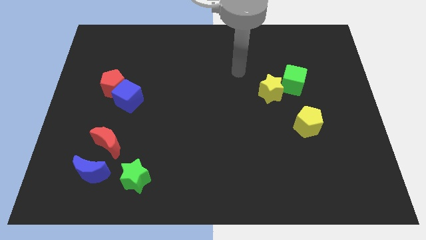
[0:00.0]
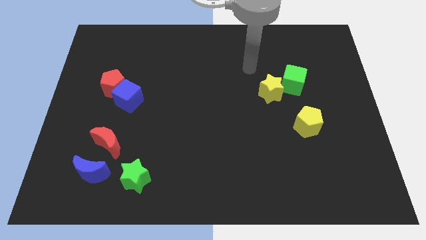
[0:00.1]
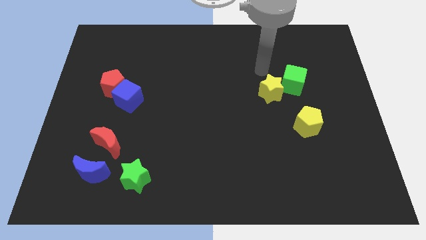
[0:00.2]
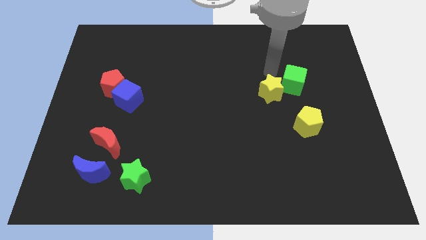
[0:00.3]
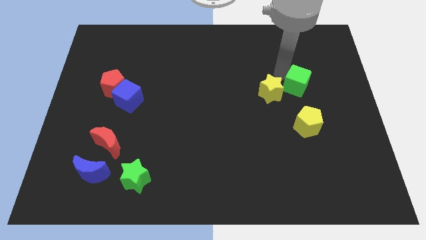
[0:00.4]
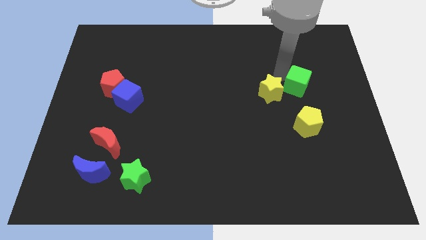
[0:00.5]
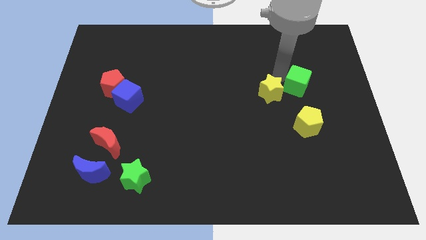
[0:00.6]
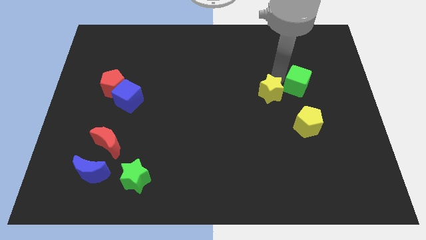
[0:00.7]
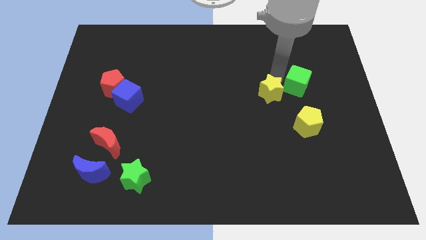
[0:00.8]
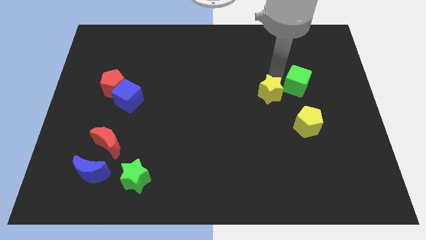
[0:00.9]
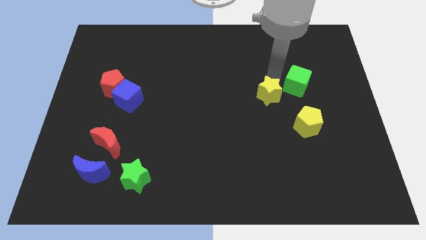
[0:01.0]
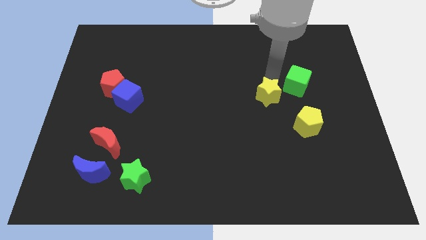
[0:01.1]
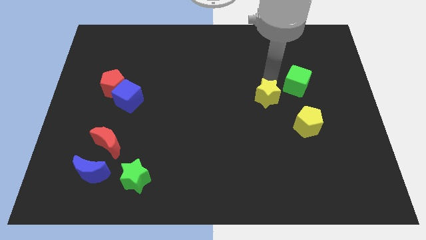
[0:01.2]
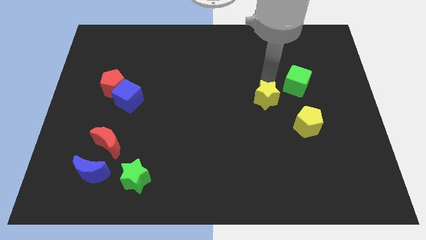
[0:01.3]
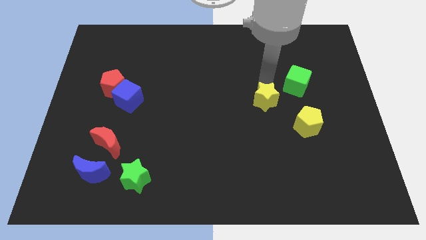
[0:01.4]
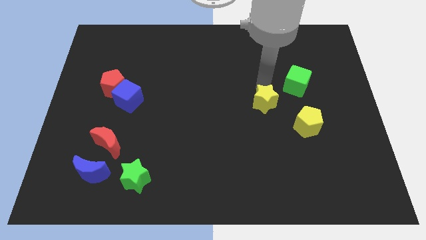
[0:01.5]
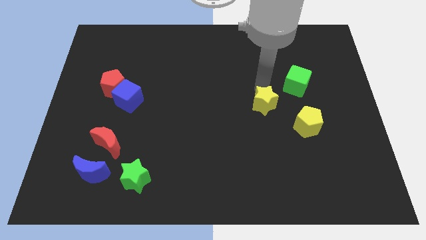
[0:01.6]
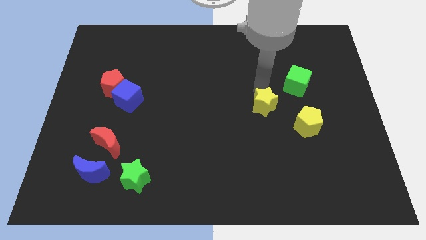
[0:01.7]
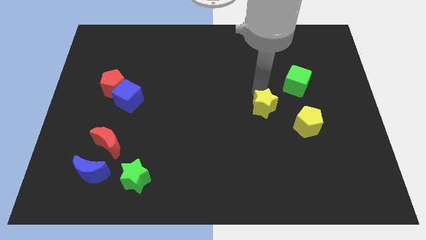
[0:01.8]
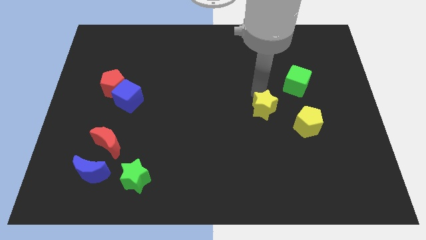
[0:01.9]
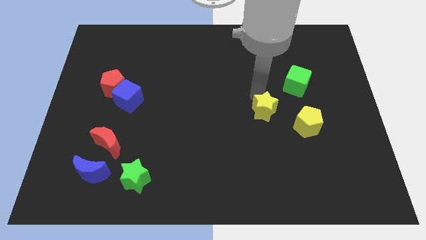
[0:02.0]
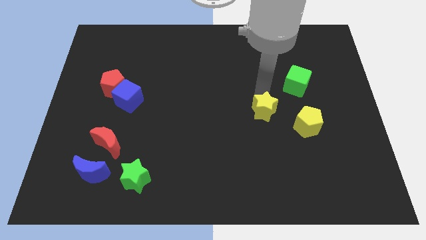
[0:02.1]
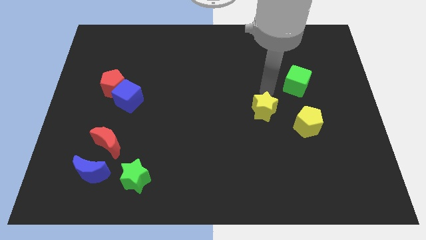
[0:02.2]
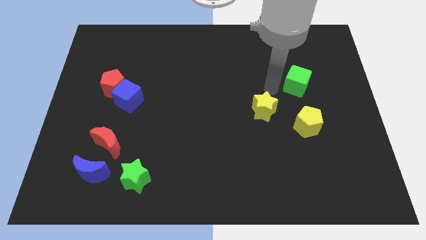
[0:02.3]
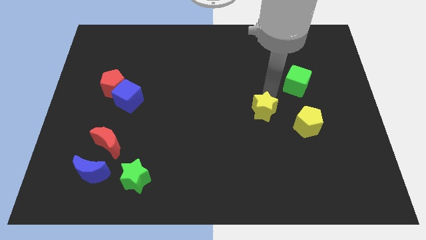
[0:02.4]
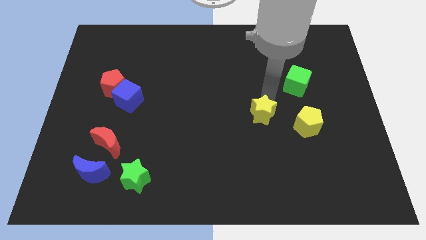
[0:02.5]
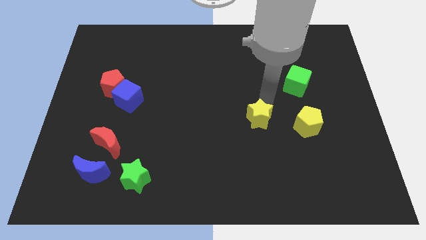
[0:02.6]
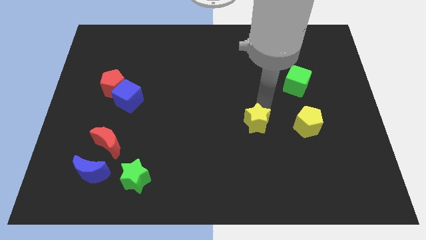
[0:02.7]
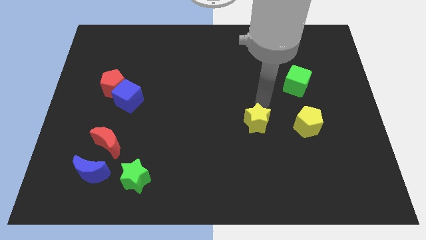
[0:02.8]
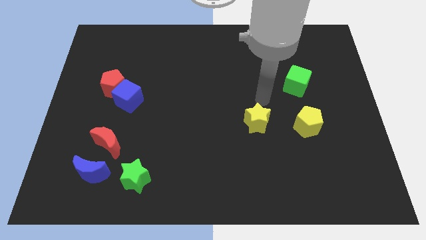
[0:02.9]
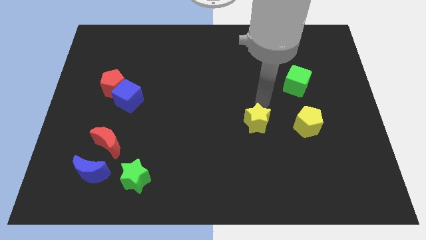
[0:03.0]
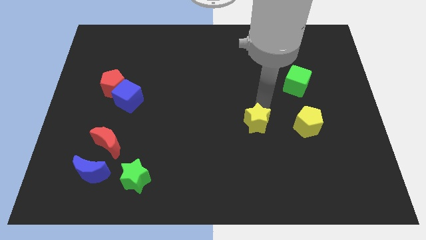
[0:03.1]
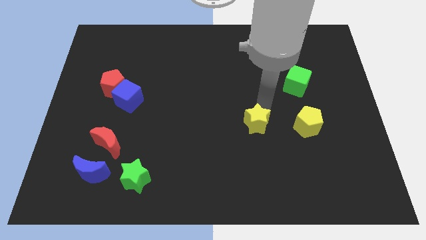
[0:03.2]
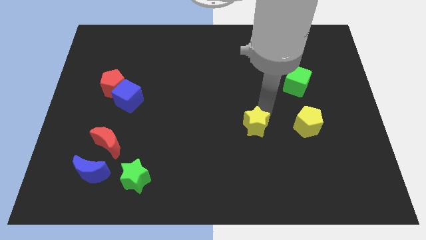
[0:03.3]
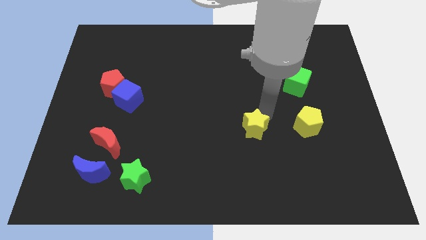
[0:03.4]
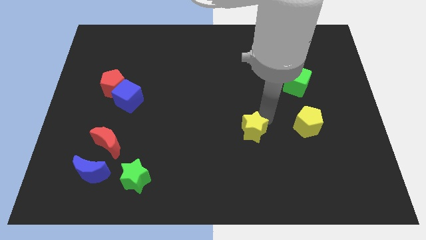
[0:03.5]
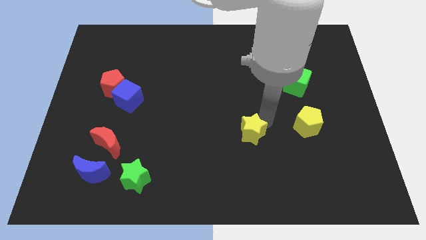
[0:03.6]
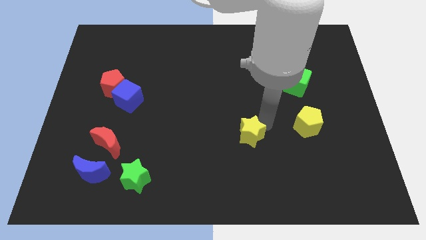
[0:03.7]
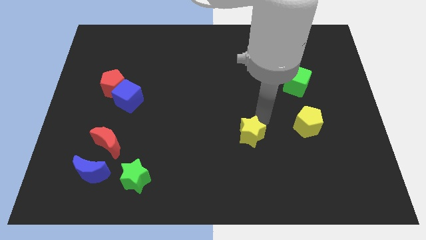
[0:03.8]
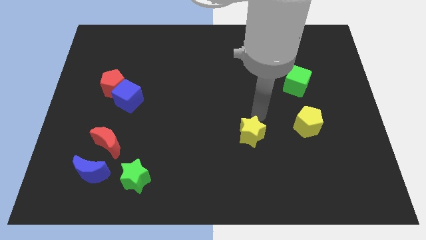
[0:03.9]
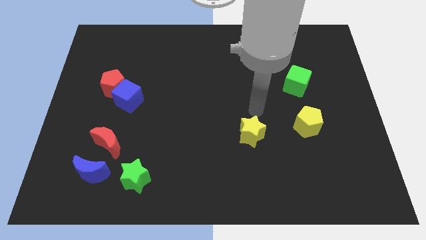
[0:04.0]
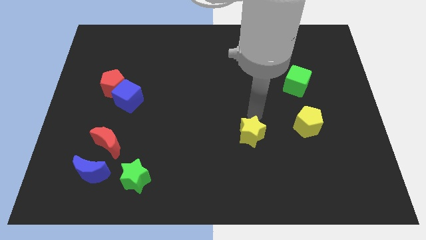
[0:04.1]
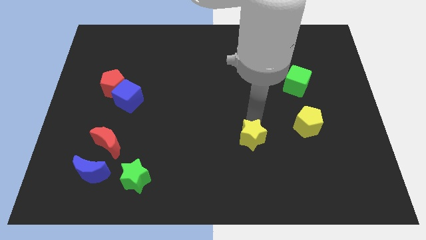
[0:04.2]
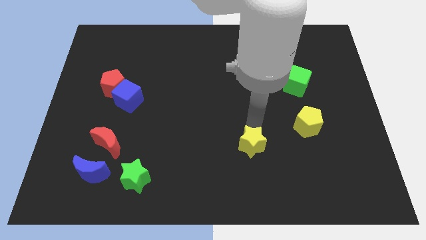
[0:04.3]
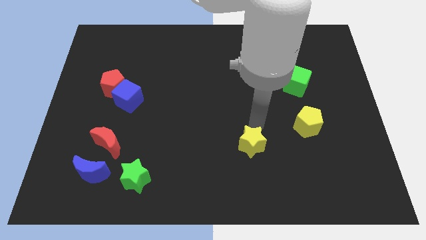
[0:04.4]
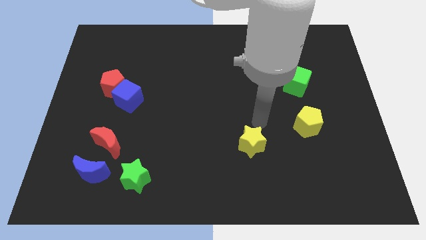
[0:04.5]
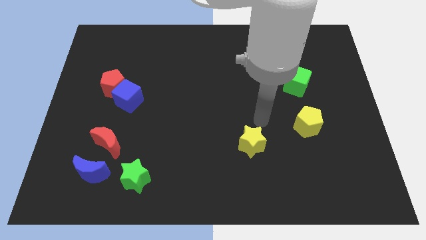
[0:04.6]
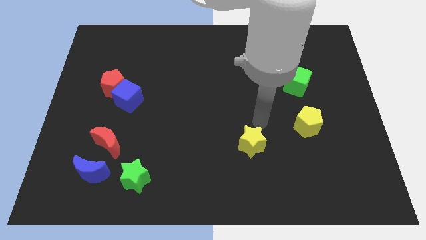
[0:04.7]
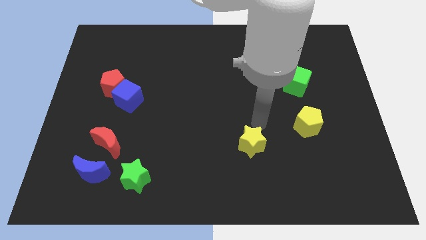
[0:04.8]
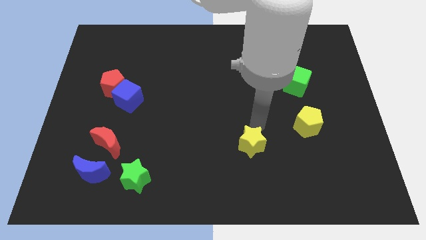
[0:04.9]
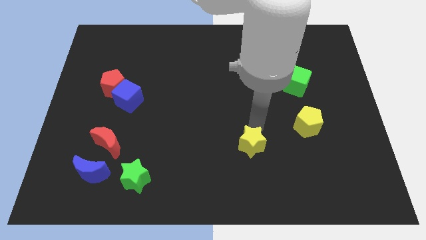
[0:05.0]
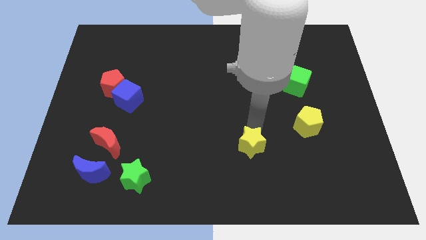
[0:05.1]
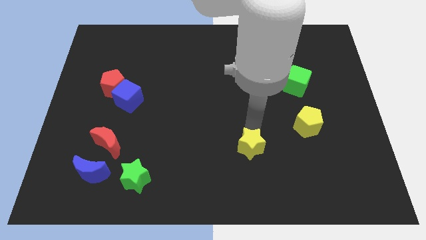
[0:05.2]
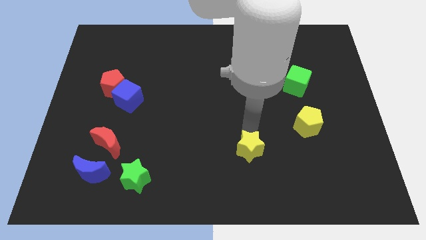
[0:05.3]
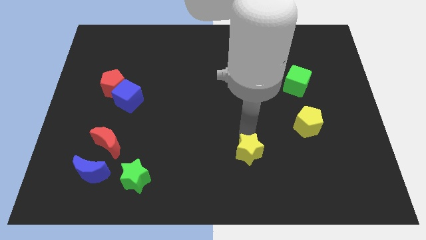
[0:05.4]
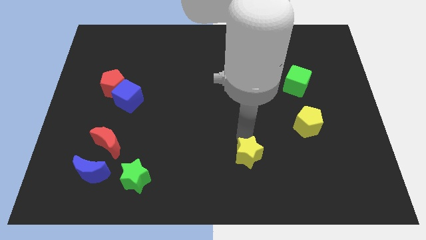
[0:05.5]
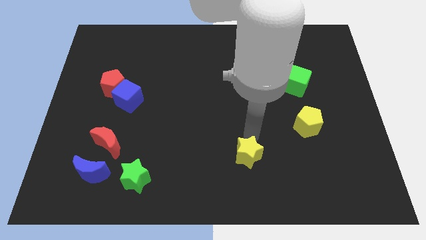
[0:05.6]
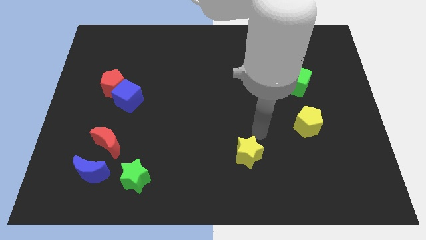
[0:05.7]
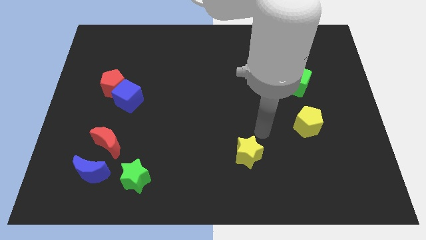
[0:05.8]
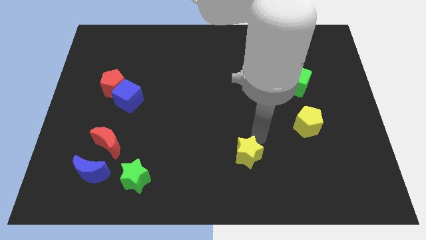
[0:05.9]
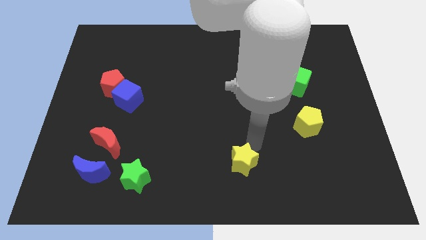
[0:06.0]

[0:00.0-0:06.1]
move the yellow star to the bottom
